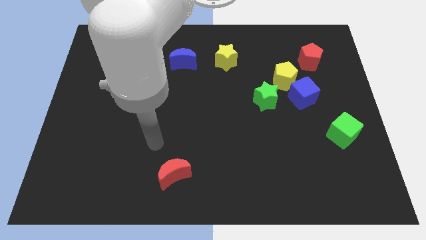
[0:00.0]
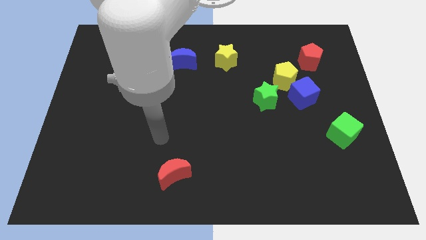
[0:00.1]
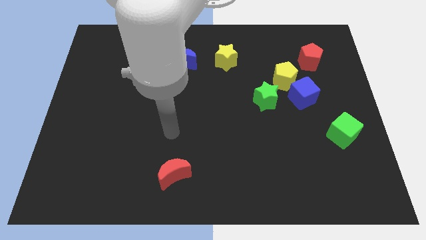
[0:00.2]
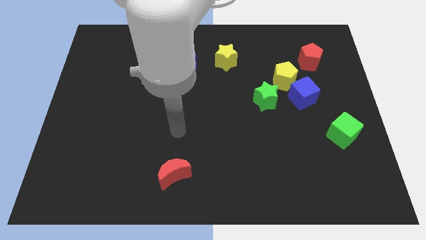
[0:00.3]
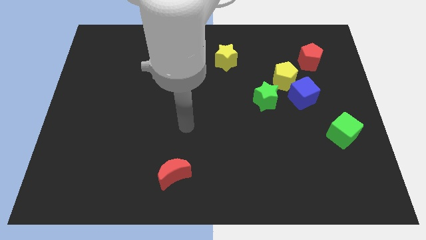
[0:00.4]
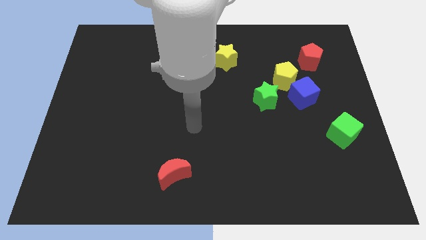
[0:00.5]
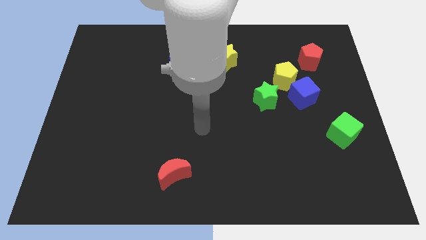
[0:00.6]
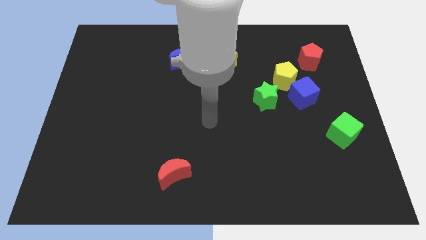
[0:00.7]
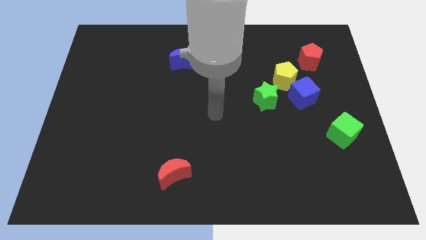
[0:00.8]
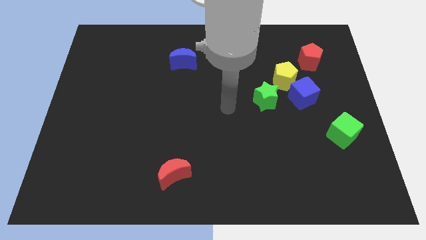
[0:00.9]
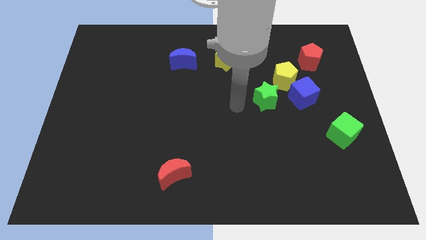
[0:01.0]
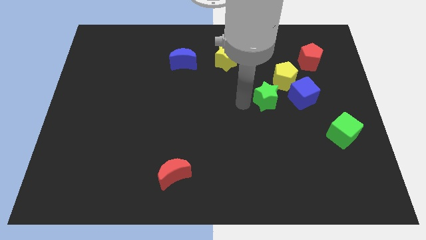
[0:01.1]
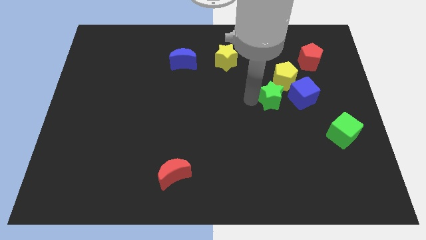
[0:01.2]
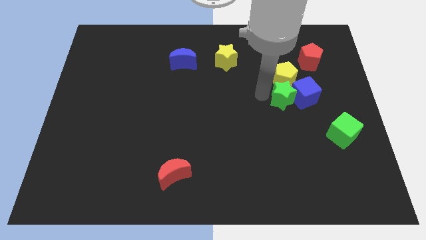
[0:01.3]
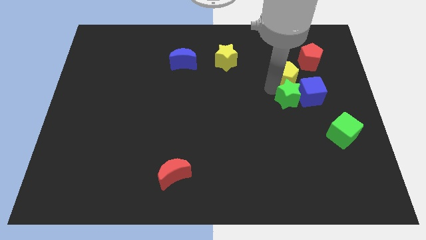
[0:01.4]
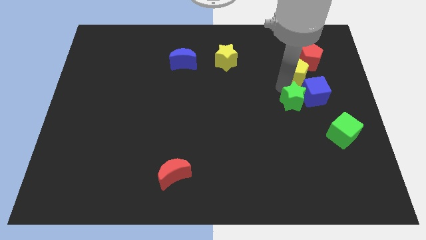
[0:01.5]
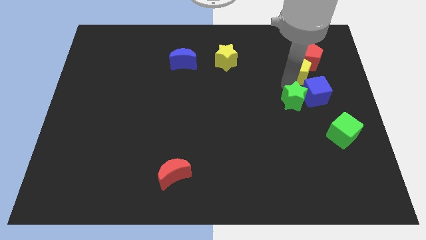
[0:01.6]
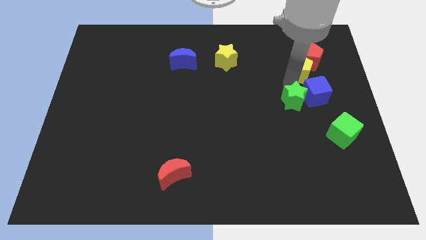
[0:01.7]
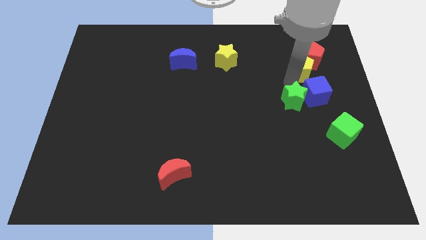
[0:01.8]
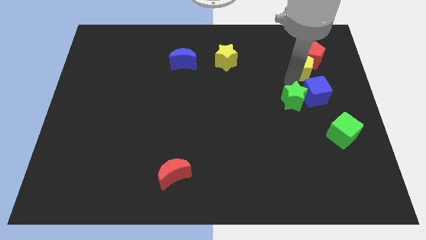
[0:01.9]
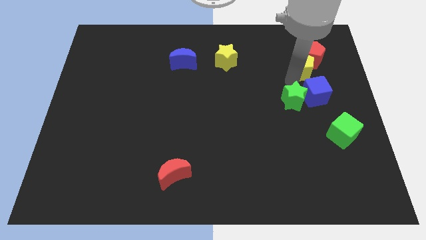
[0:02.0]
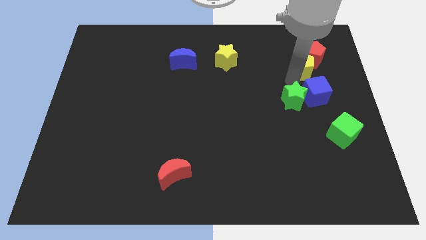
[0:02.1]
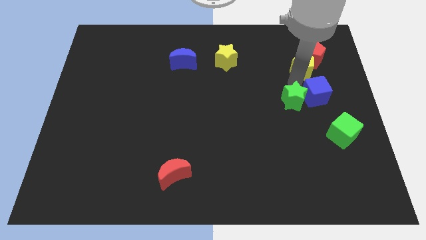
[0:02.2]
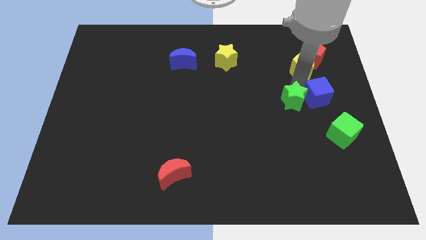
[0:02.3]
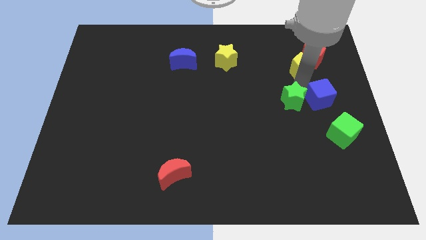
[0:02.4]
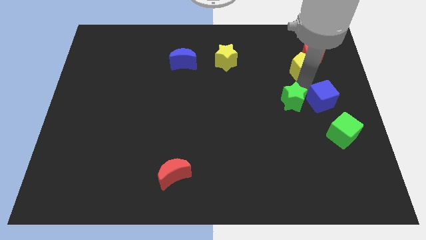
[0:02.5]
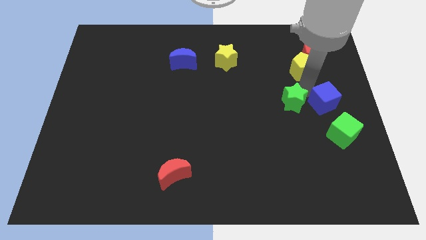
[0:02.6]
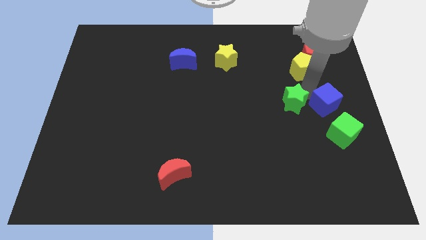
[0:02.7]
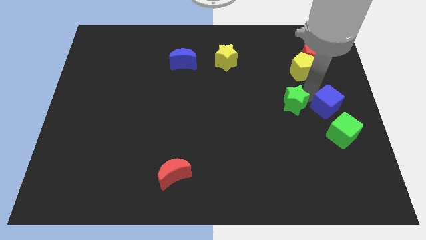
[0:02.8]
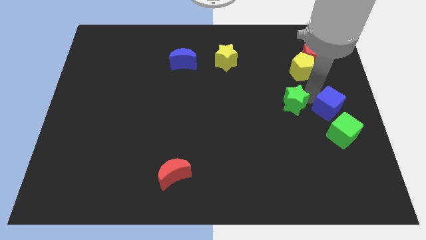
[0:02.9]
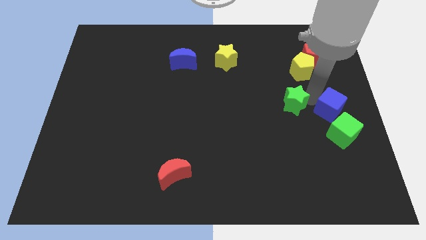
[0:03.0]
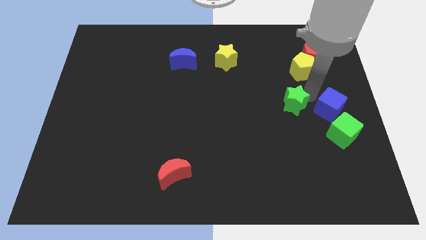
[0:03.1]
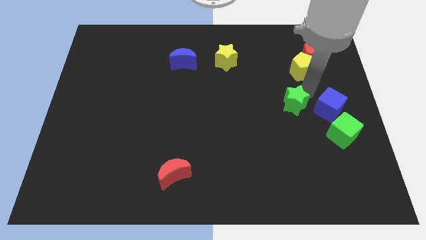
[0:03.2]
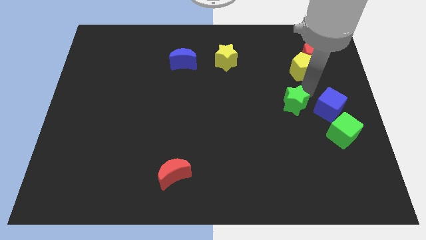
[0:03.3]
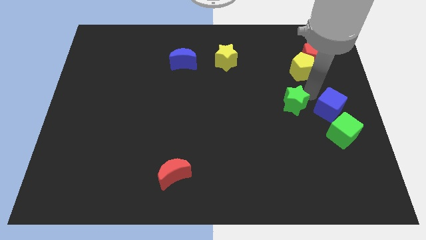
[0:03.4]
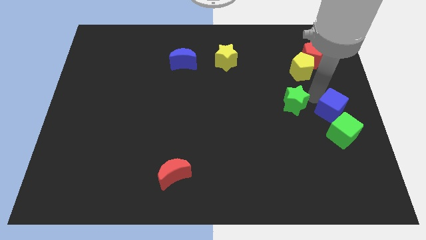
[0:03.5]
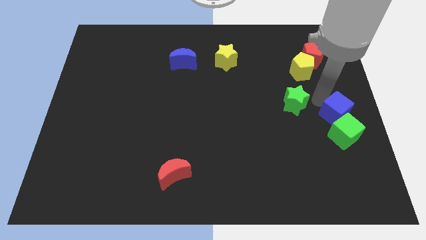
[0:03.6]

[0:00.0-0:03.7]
pull the blue cube apart from the yellow pentagon and green star

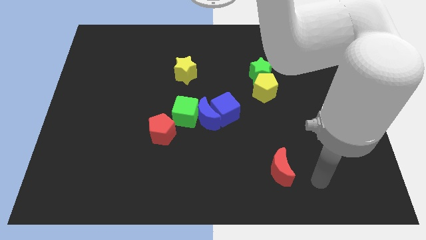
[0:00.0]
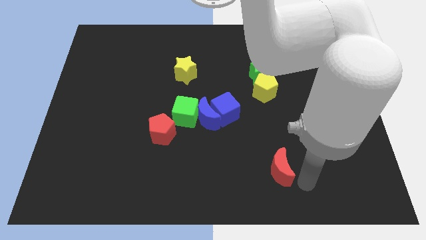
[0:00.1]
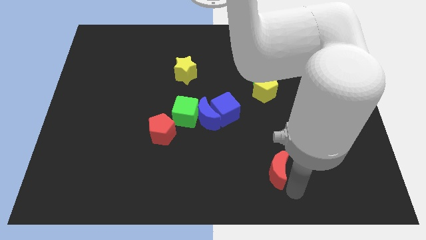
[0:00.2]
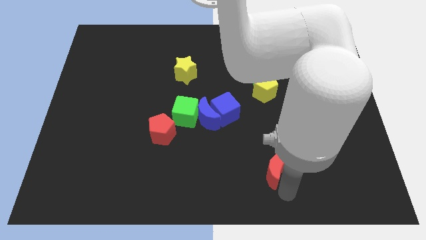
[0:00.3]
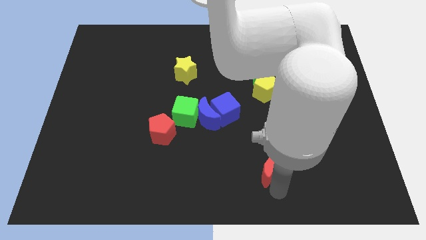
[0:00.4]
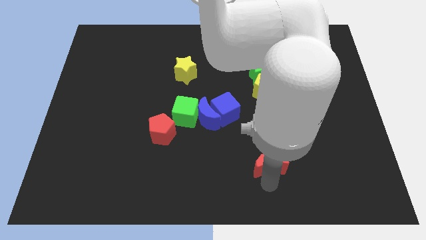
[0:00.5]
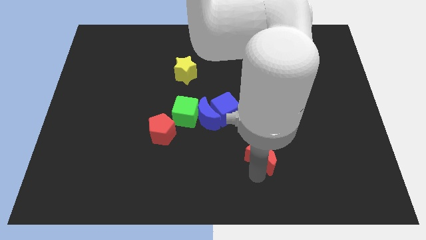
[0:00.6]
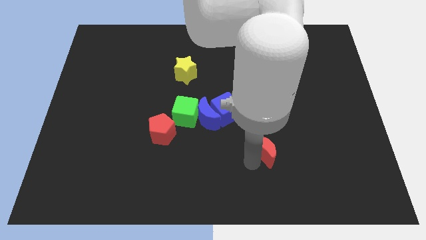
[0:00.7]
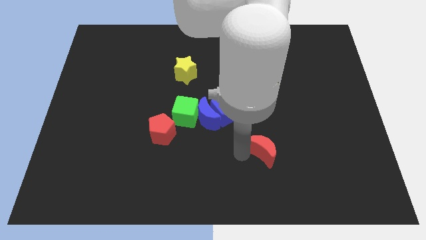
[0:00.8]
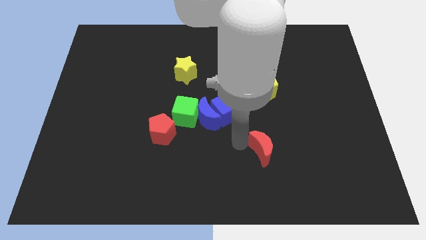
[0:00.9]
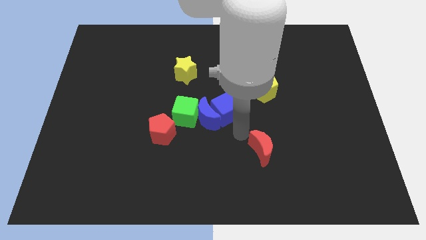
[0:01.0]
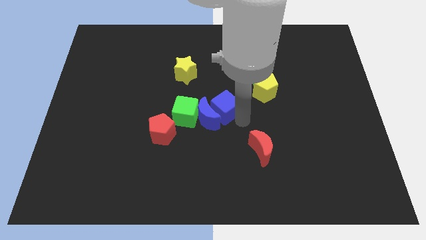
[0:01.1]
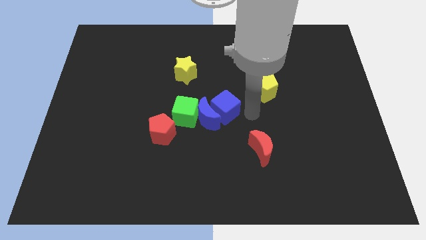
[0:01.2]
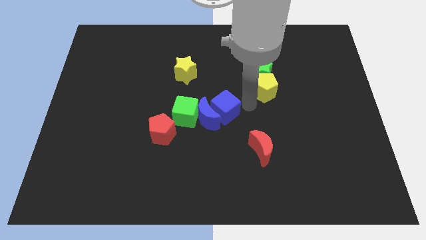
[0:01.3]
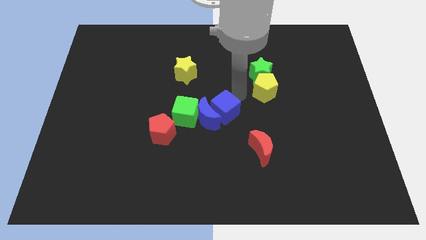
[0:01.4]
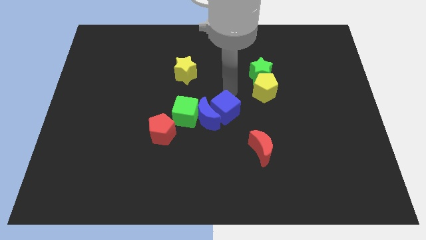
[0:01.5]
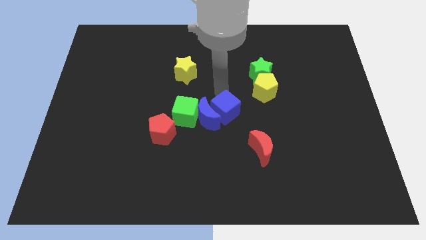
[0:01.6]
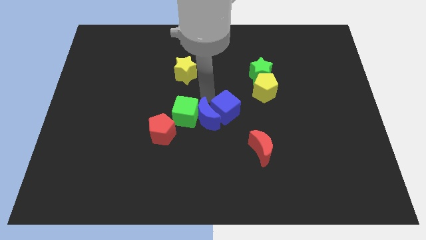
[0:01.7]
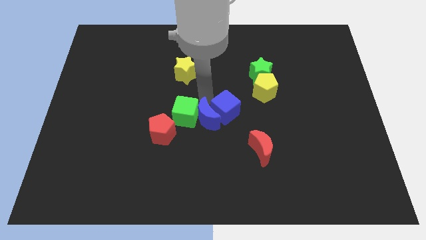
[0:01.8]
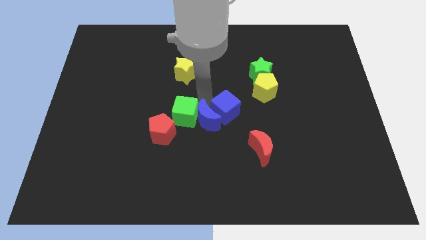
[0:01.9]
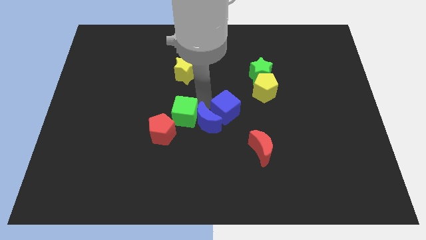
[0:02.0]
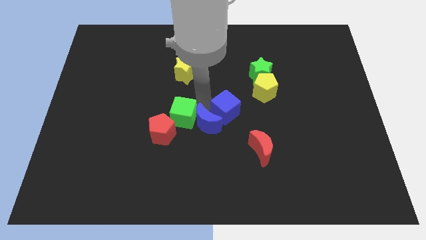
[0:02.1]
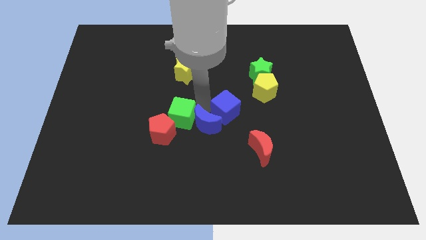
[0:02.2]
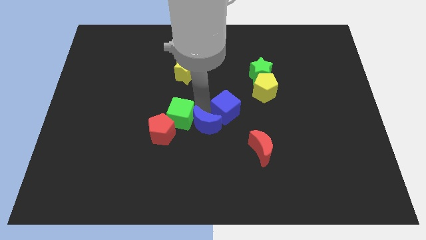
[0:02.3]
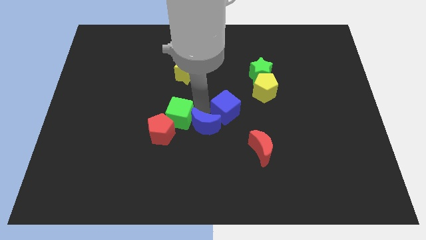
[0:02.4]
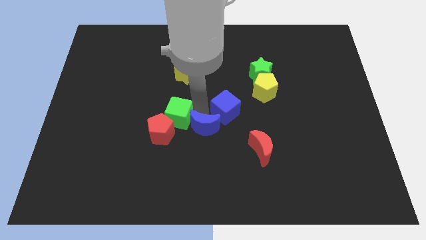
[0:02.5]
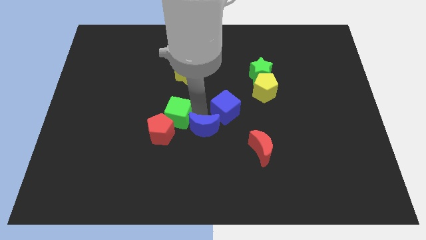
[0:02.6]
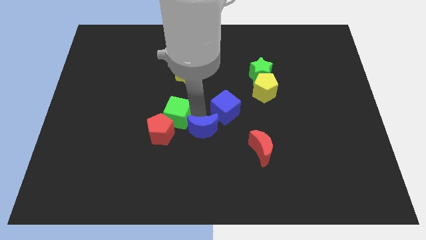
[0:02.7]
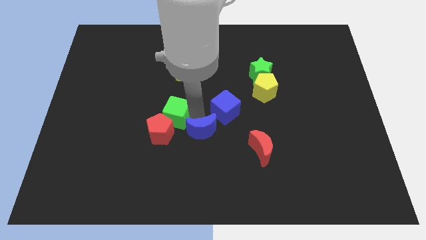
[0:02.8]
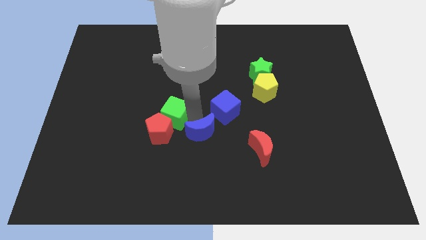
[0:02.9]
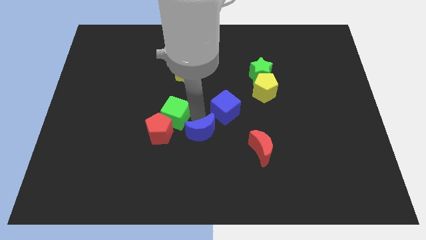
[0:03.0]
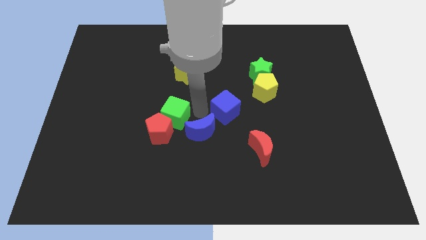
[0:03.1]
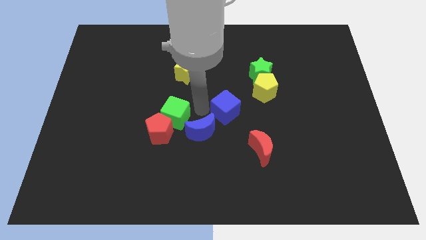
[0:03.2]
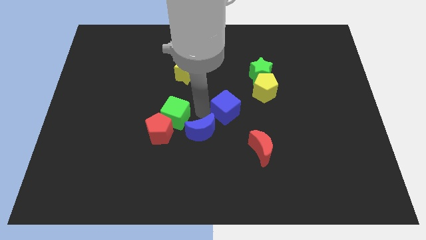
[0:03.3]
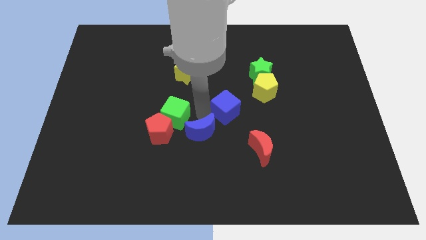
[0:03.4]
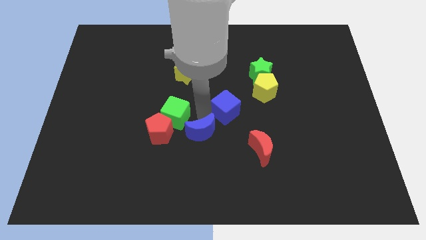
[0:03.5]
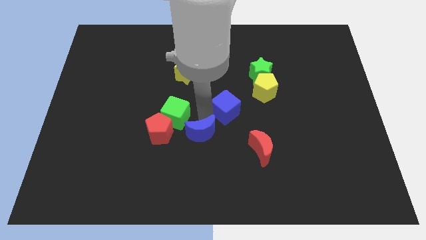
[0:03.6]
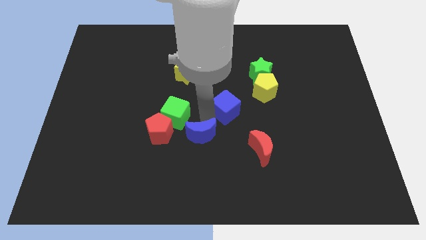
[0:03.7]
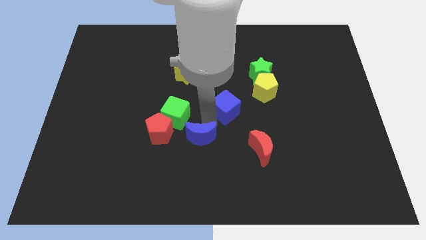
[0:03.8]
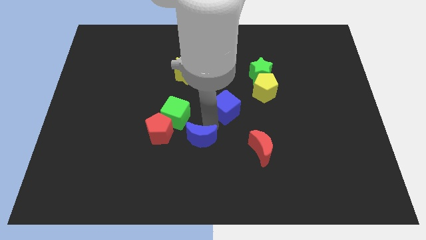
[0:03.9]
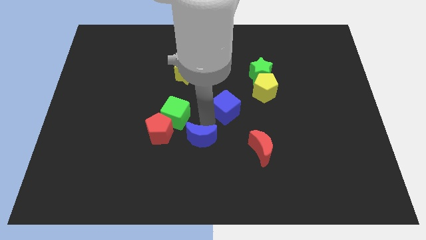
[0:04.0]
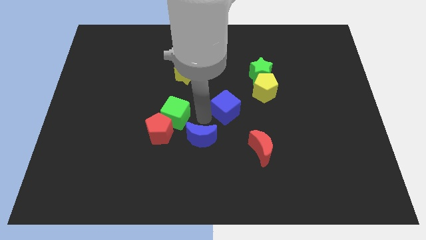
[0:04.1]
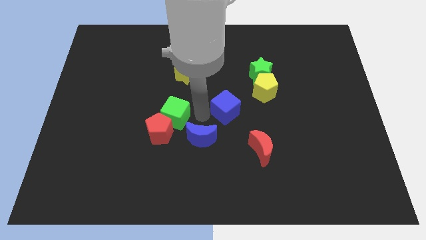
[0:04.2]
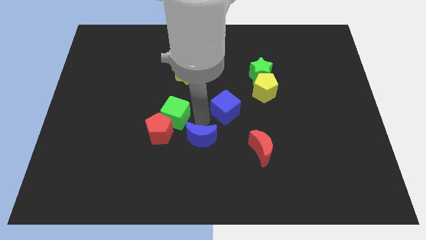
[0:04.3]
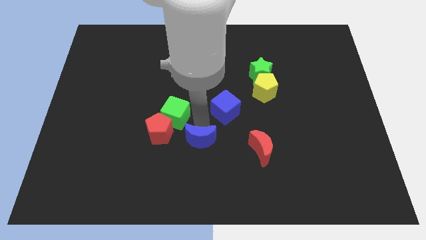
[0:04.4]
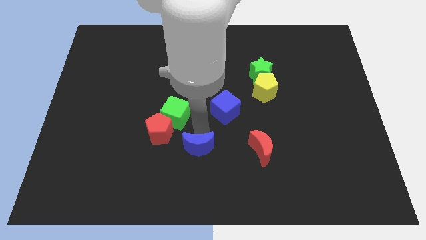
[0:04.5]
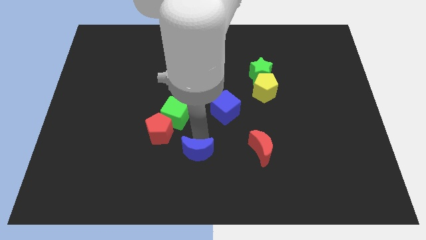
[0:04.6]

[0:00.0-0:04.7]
pull the blue moon apart from the blue cube and green cube

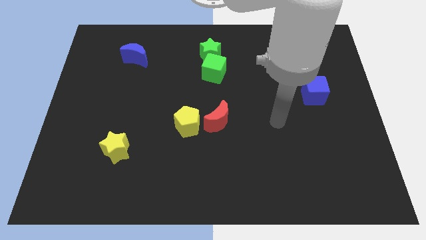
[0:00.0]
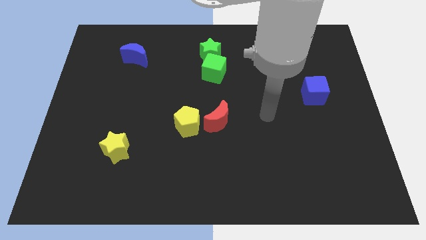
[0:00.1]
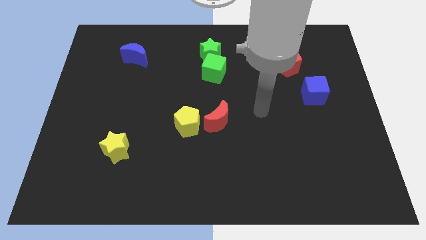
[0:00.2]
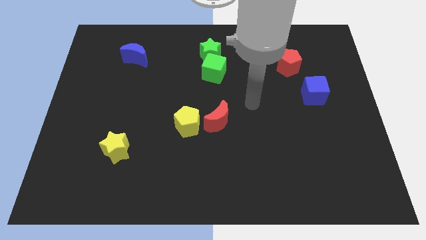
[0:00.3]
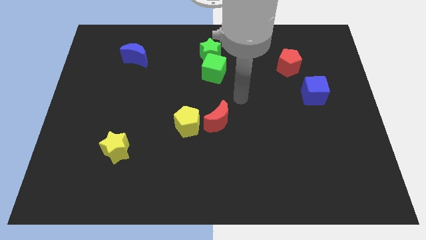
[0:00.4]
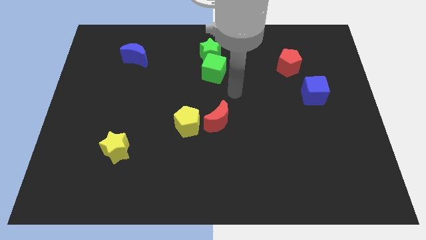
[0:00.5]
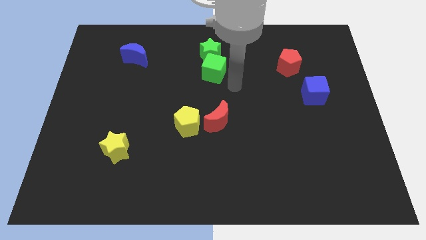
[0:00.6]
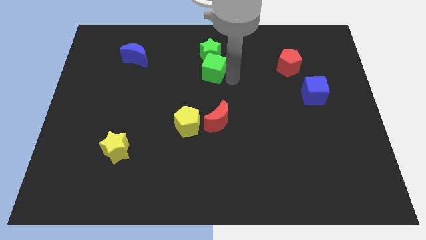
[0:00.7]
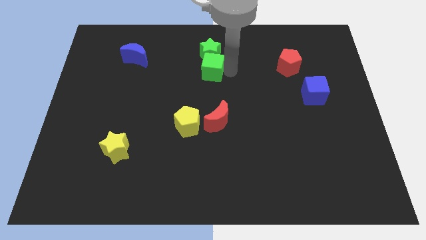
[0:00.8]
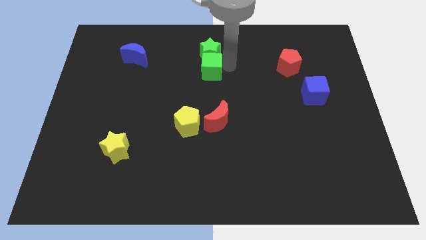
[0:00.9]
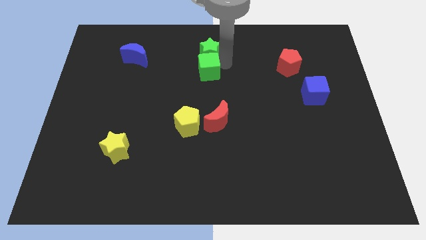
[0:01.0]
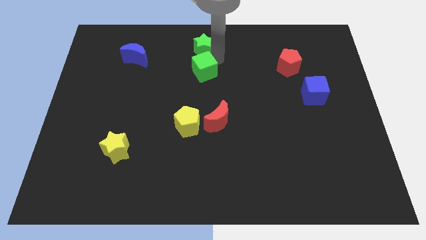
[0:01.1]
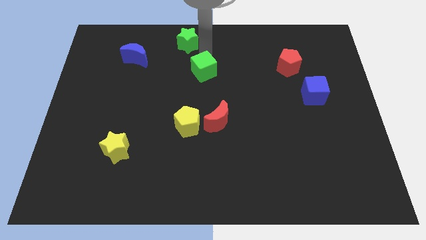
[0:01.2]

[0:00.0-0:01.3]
move the green cube away from the green star
